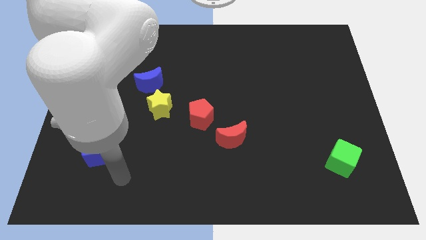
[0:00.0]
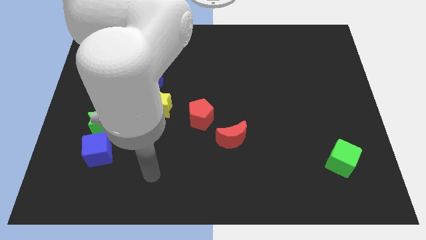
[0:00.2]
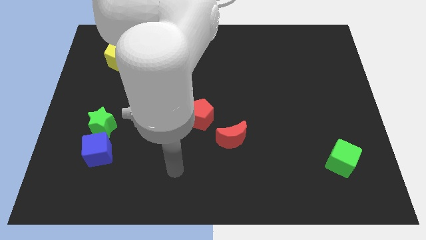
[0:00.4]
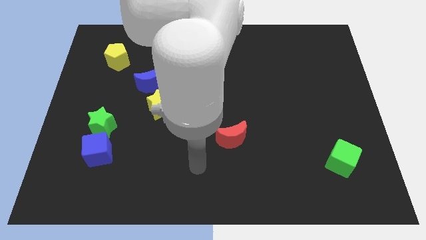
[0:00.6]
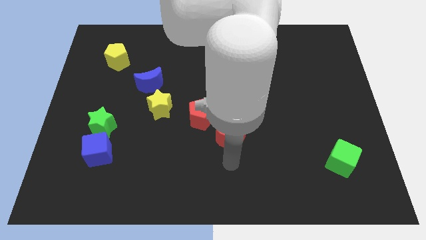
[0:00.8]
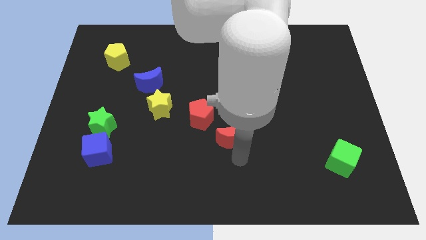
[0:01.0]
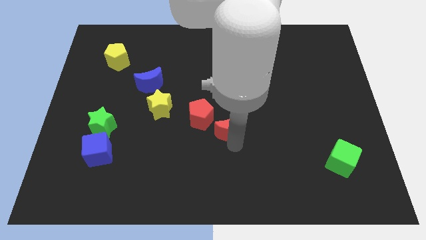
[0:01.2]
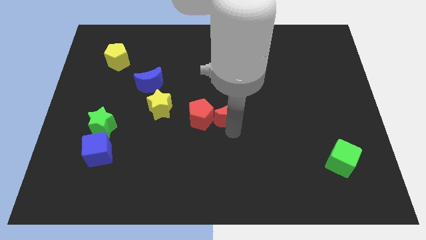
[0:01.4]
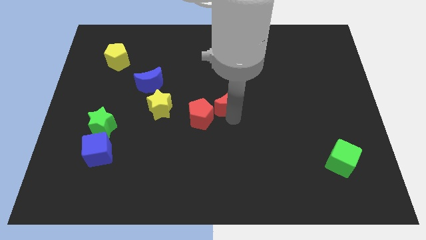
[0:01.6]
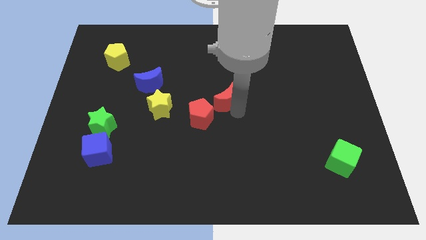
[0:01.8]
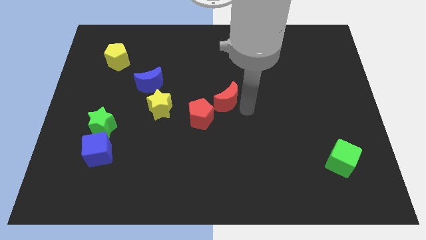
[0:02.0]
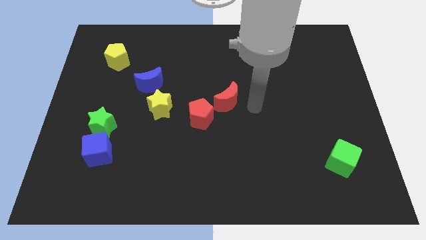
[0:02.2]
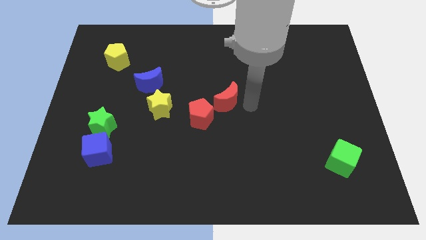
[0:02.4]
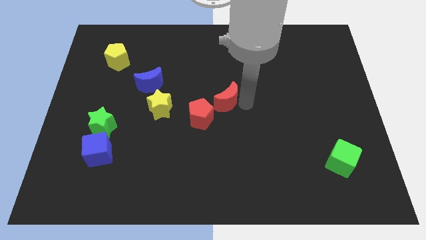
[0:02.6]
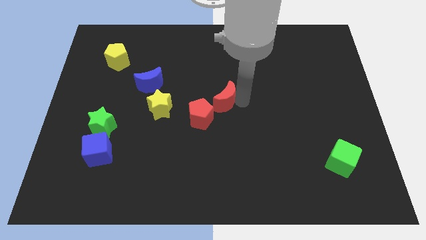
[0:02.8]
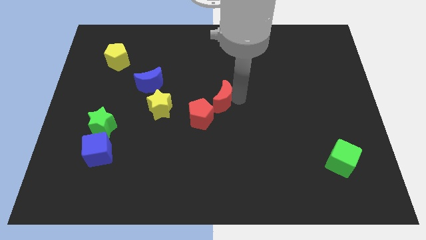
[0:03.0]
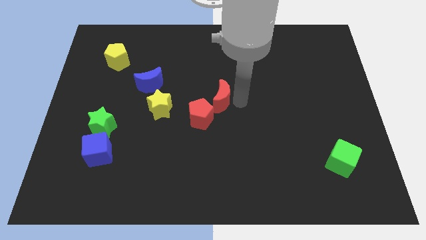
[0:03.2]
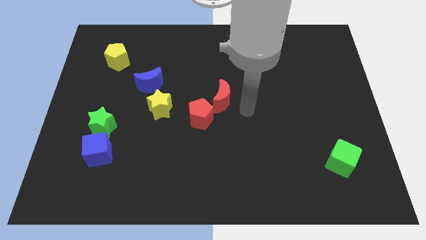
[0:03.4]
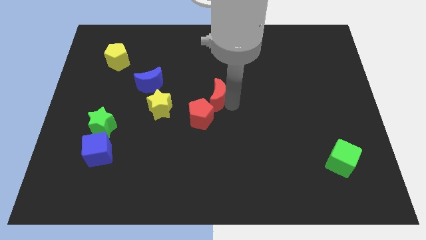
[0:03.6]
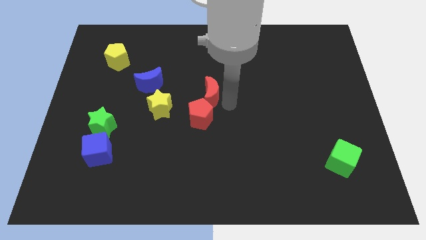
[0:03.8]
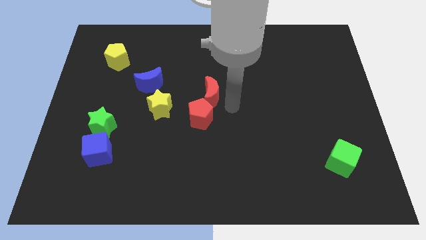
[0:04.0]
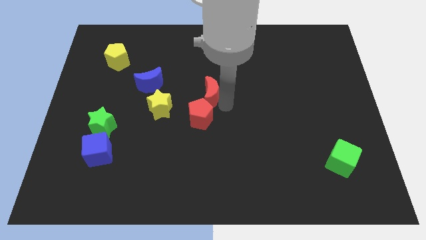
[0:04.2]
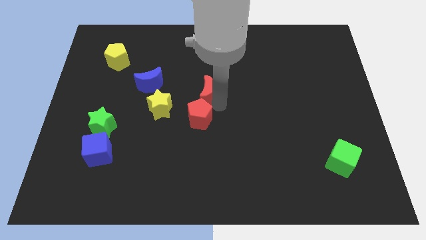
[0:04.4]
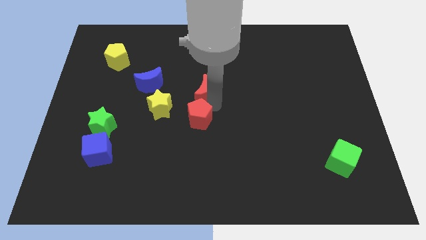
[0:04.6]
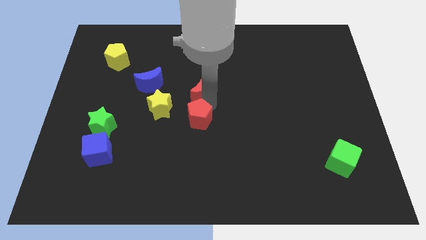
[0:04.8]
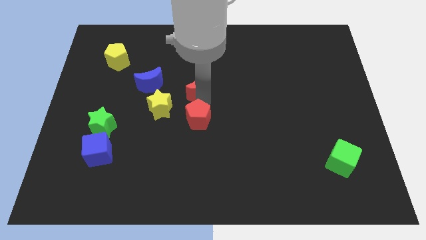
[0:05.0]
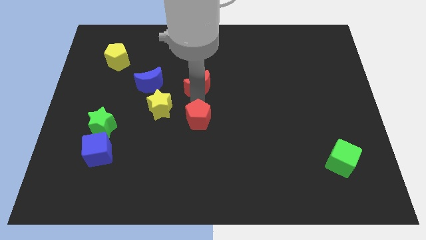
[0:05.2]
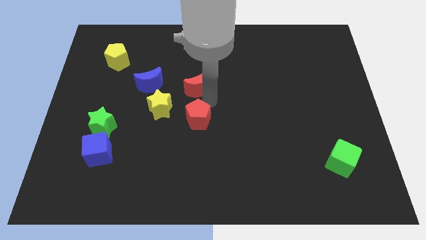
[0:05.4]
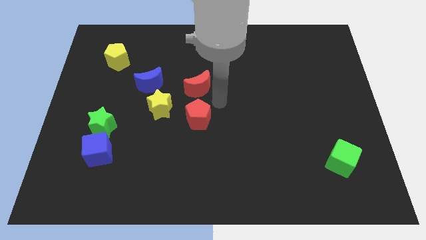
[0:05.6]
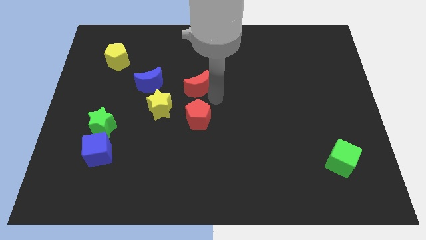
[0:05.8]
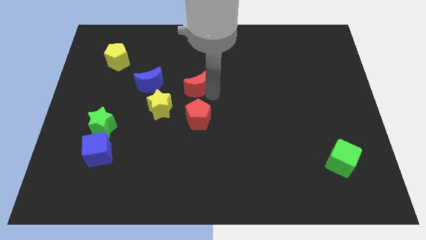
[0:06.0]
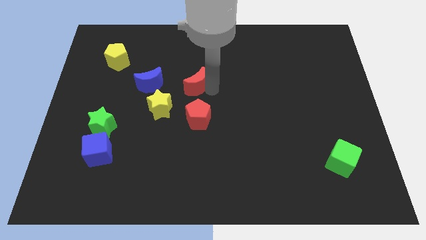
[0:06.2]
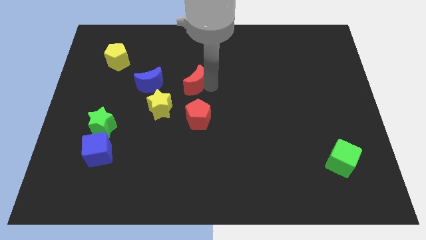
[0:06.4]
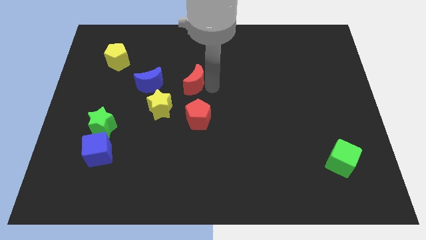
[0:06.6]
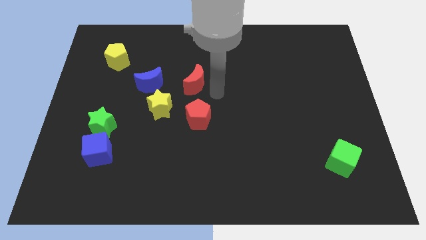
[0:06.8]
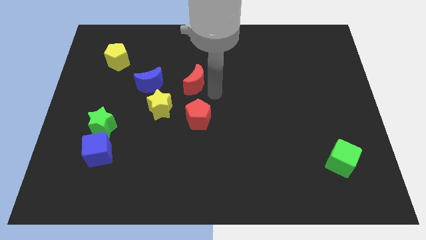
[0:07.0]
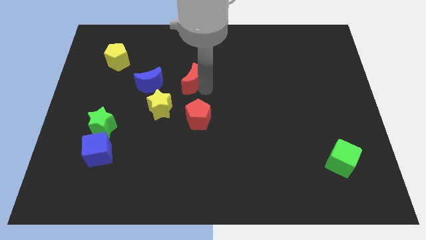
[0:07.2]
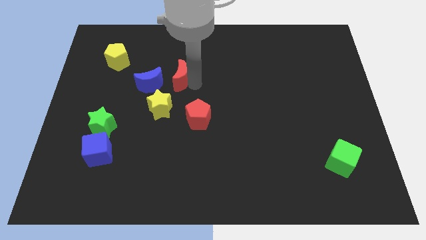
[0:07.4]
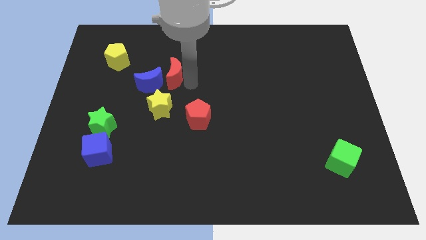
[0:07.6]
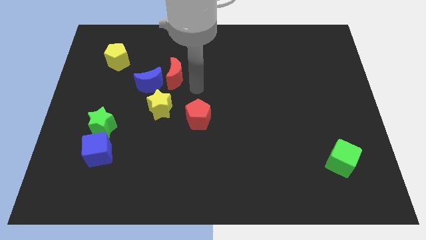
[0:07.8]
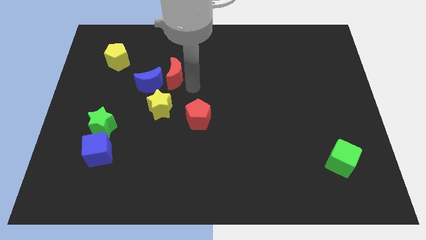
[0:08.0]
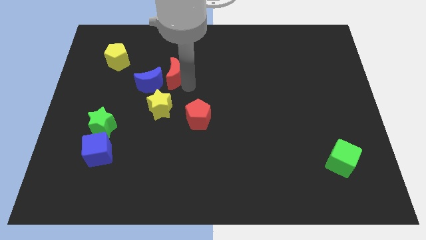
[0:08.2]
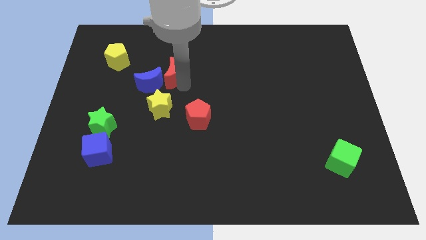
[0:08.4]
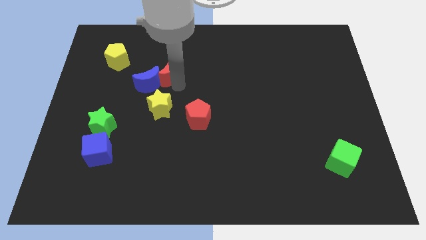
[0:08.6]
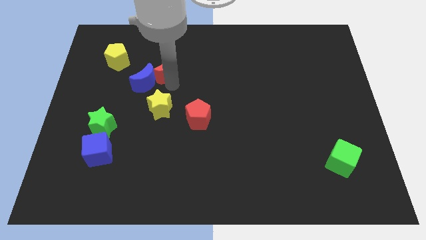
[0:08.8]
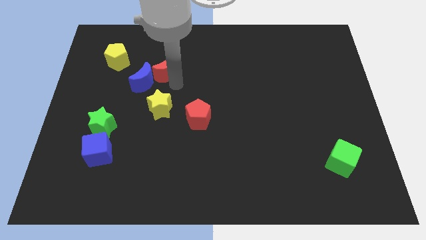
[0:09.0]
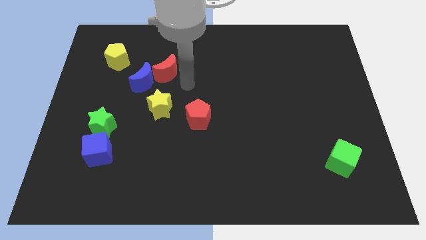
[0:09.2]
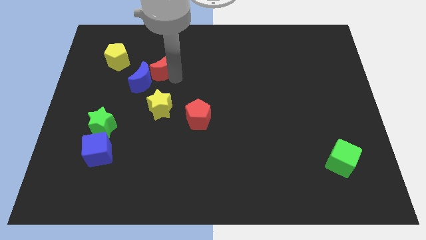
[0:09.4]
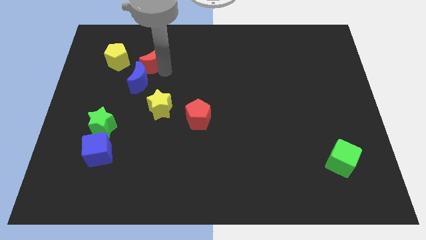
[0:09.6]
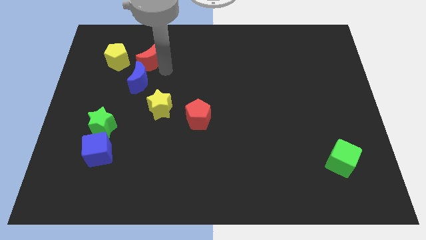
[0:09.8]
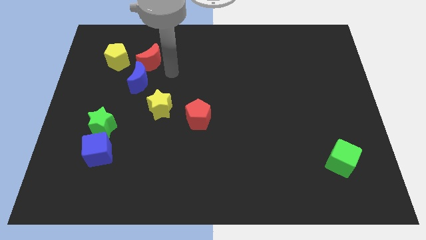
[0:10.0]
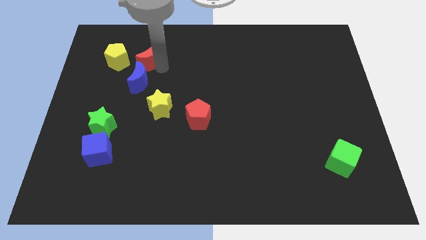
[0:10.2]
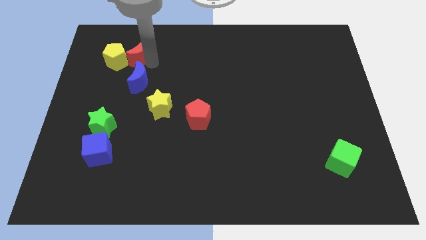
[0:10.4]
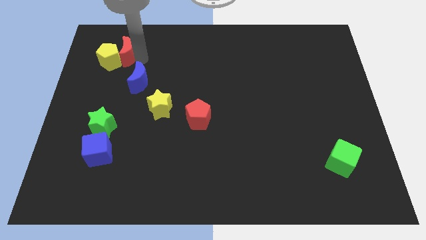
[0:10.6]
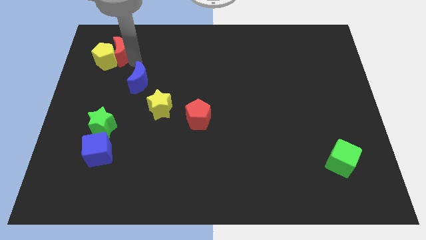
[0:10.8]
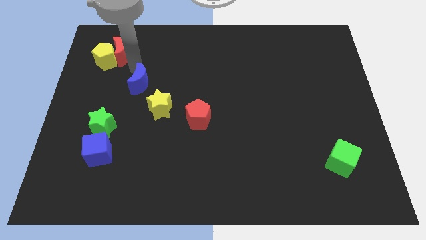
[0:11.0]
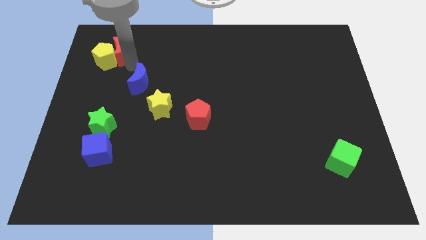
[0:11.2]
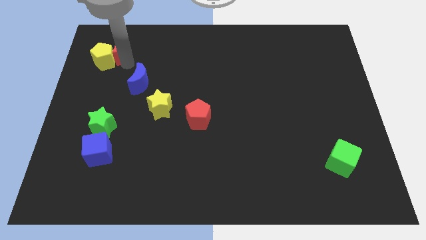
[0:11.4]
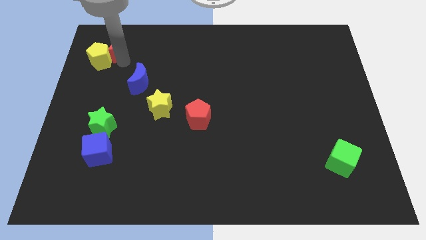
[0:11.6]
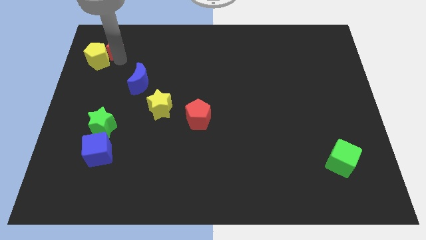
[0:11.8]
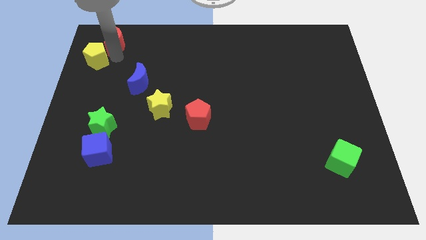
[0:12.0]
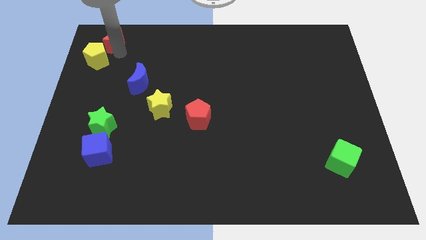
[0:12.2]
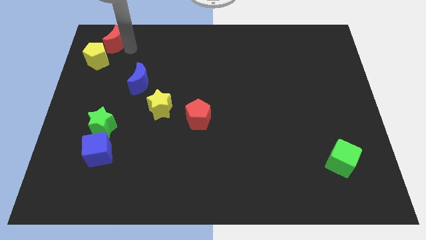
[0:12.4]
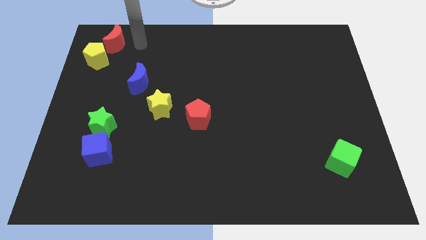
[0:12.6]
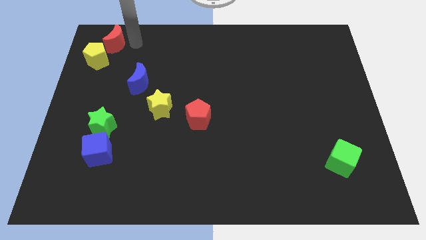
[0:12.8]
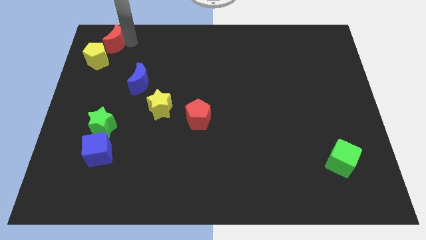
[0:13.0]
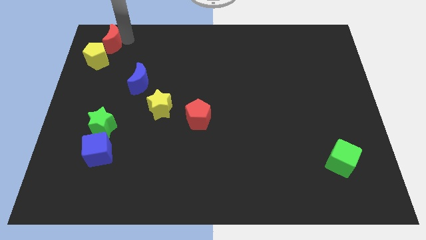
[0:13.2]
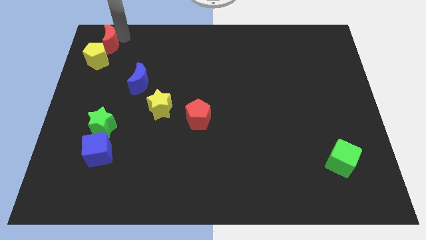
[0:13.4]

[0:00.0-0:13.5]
put the red moon to the top left corner
